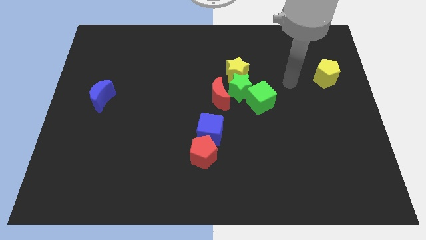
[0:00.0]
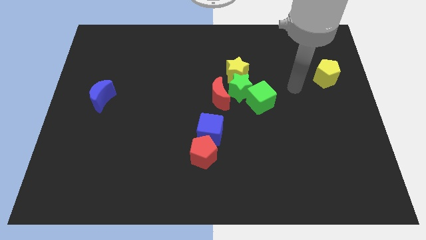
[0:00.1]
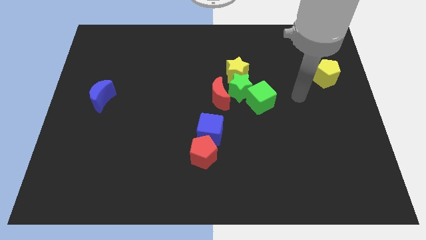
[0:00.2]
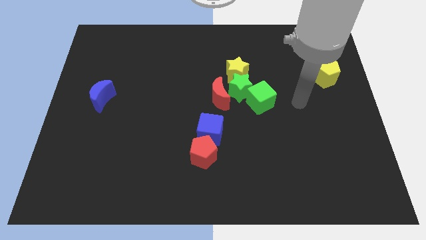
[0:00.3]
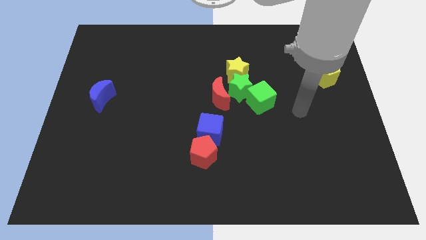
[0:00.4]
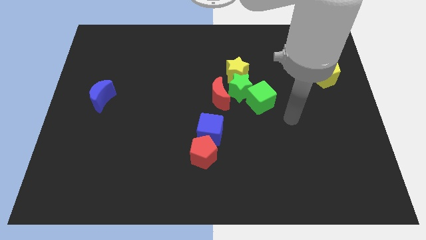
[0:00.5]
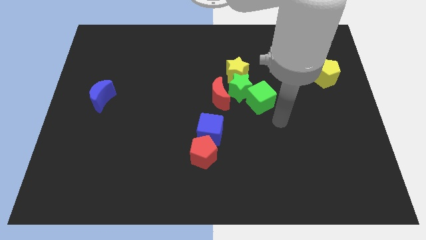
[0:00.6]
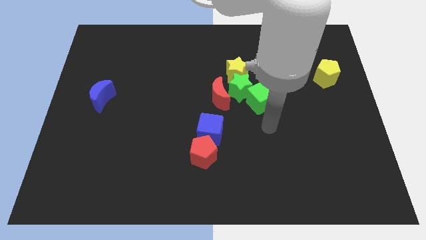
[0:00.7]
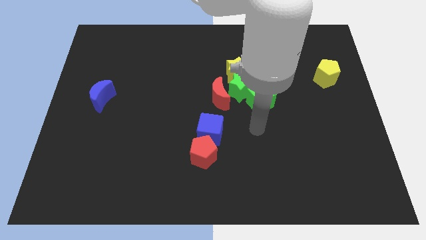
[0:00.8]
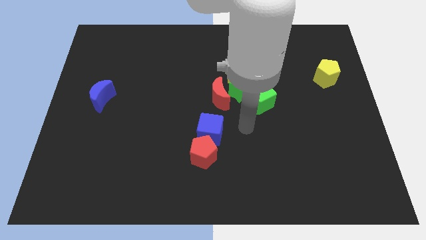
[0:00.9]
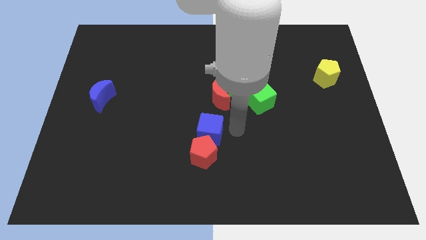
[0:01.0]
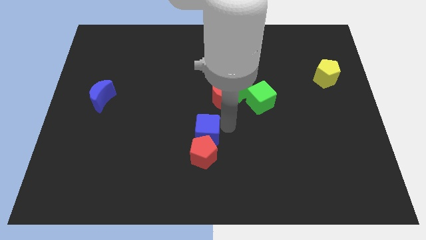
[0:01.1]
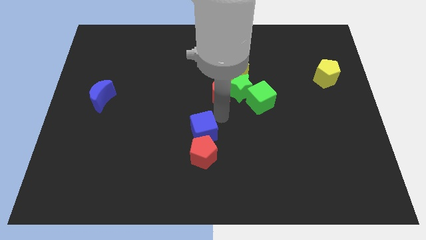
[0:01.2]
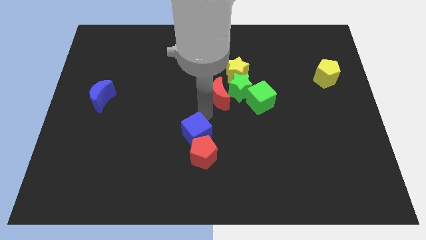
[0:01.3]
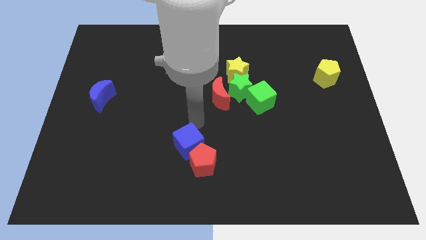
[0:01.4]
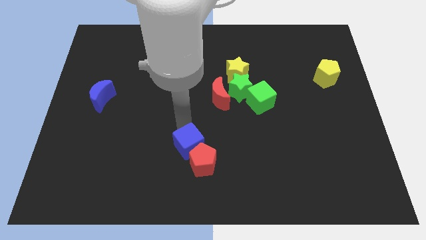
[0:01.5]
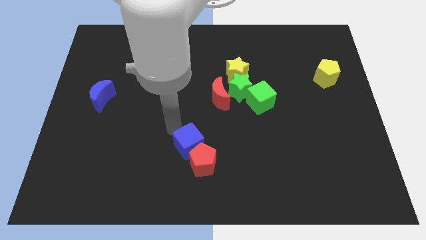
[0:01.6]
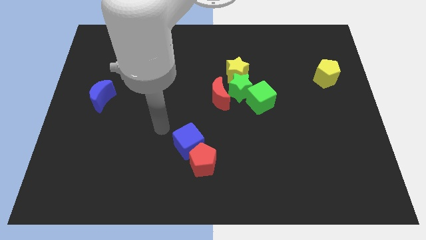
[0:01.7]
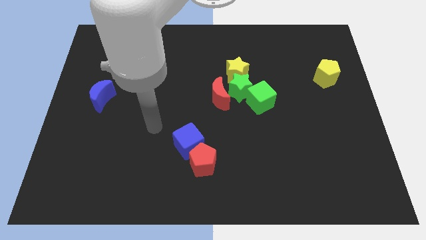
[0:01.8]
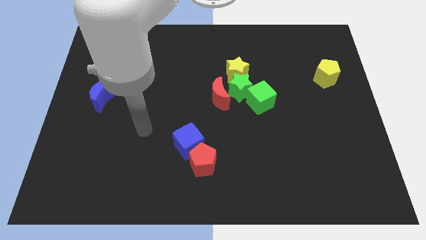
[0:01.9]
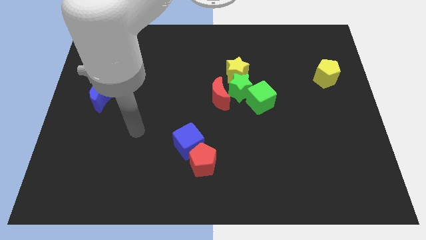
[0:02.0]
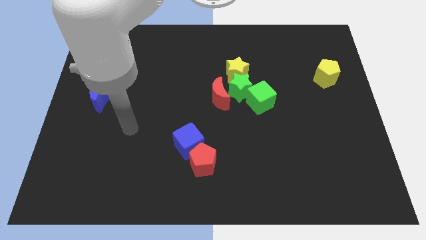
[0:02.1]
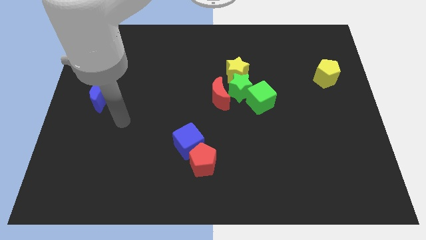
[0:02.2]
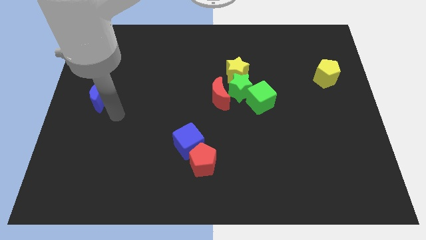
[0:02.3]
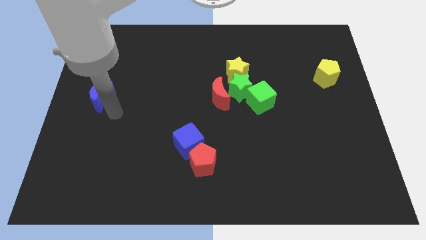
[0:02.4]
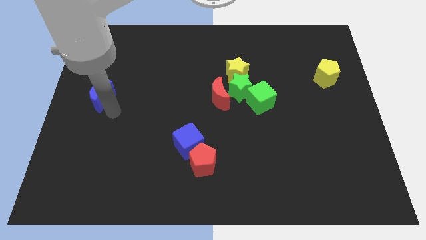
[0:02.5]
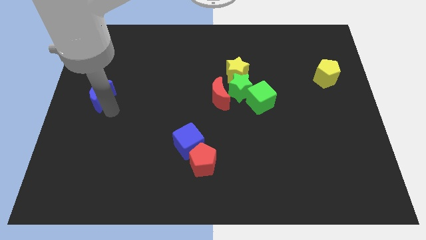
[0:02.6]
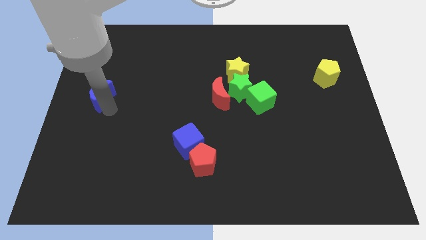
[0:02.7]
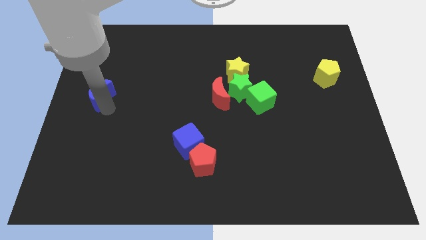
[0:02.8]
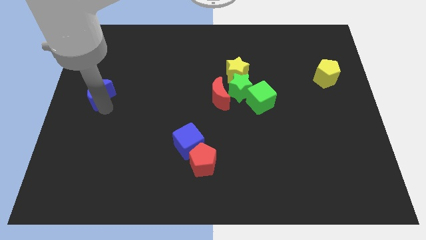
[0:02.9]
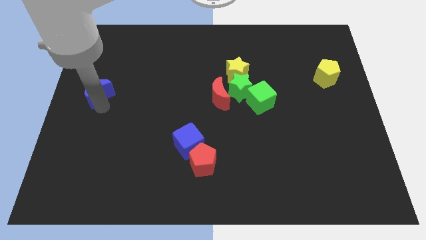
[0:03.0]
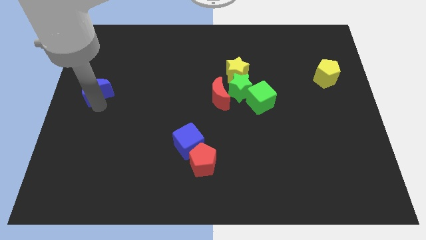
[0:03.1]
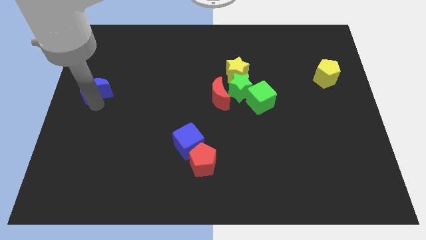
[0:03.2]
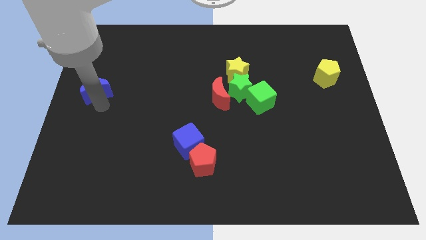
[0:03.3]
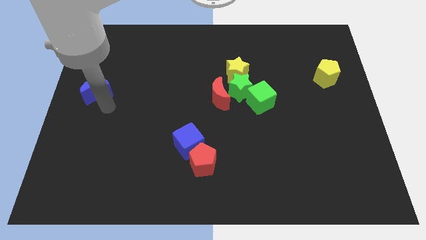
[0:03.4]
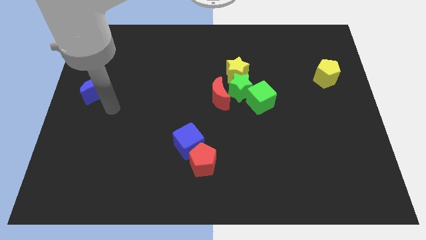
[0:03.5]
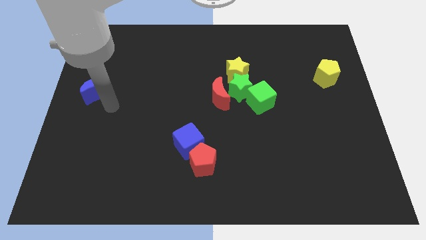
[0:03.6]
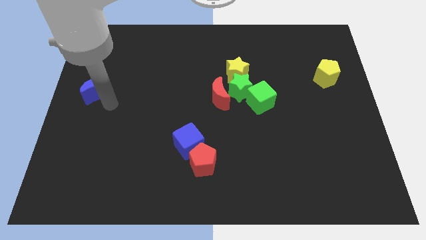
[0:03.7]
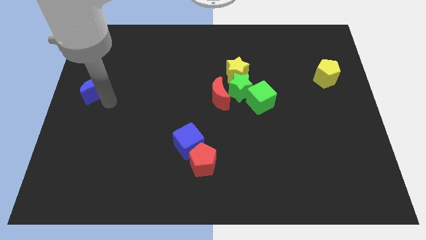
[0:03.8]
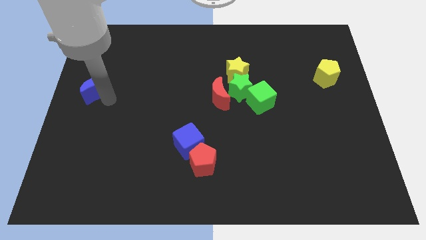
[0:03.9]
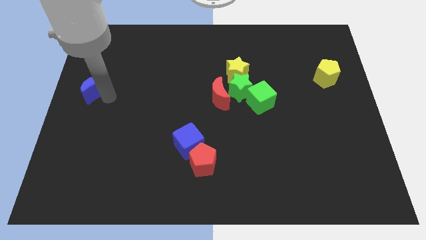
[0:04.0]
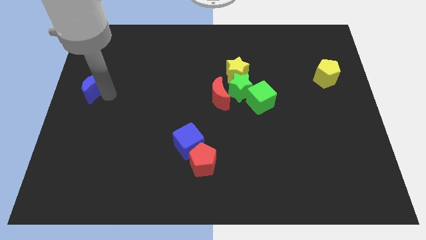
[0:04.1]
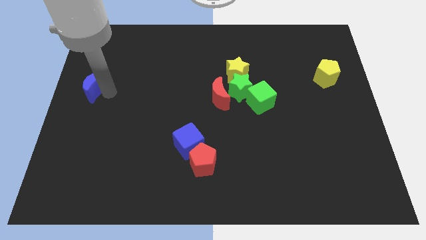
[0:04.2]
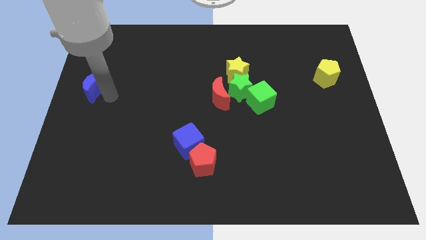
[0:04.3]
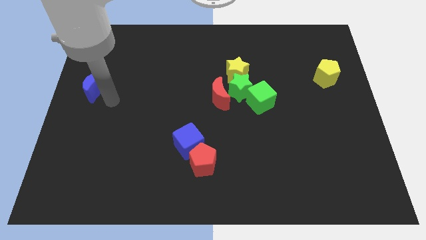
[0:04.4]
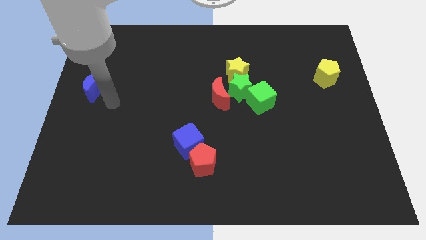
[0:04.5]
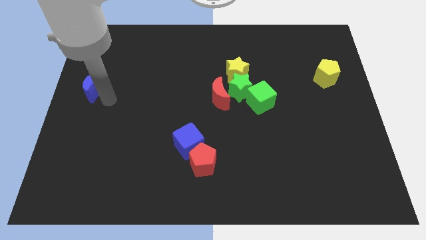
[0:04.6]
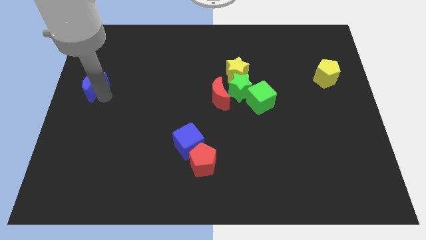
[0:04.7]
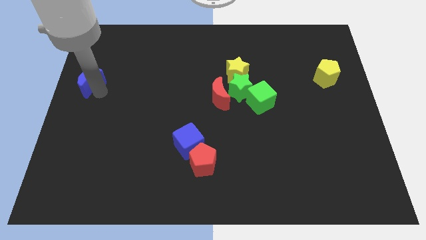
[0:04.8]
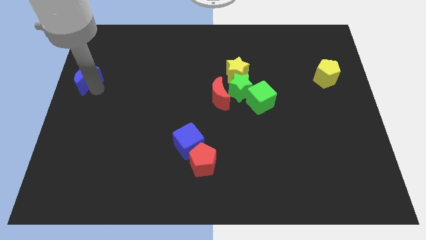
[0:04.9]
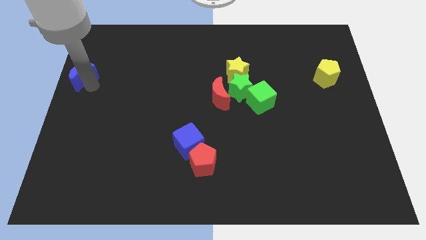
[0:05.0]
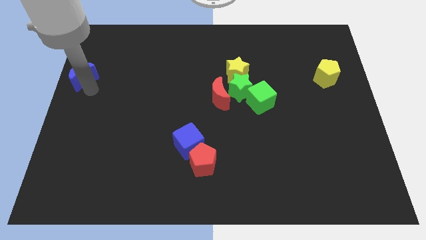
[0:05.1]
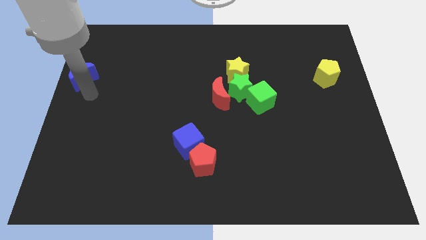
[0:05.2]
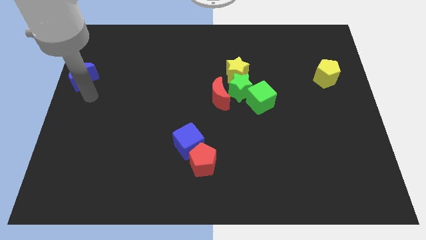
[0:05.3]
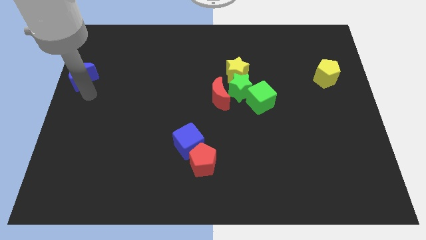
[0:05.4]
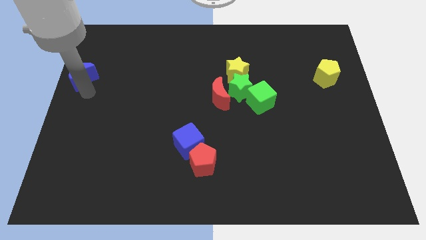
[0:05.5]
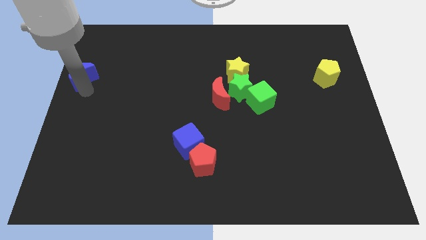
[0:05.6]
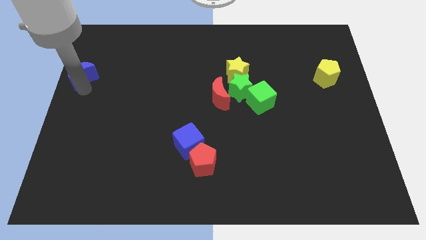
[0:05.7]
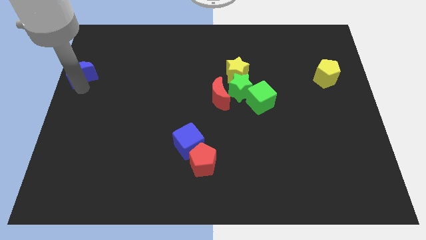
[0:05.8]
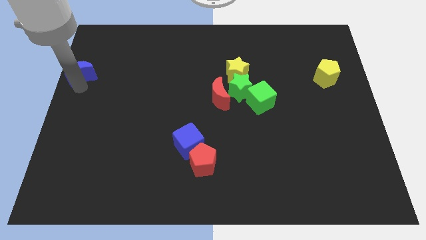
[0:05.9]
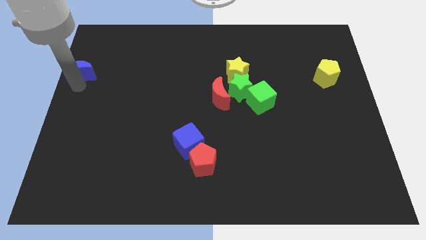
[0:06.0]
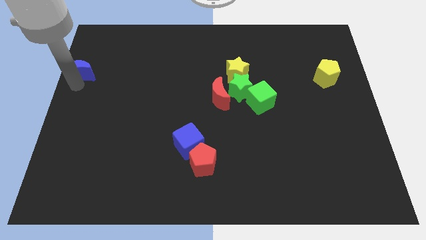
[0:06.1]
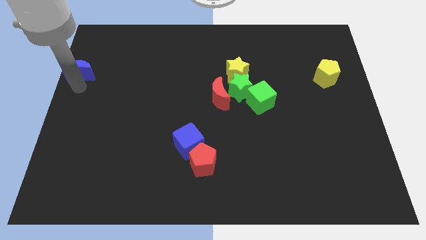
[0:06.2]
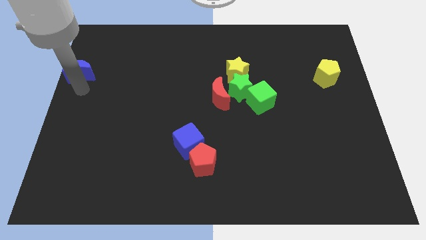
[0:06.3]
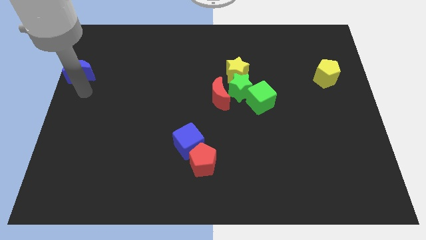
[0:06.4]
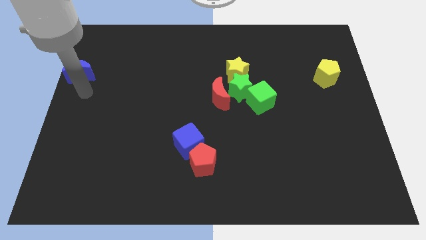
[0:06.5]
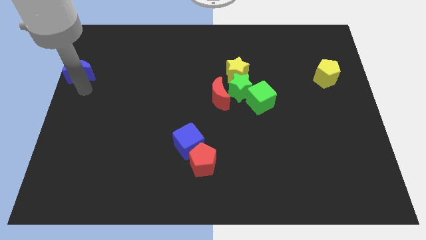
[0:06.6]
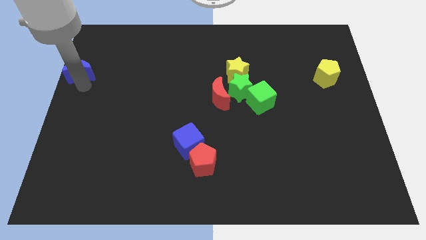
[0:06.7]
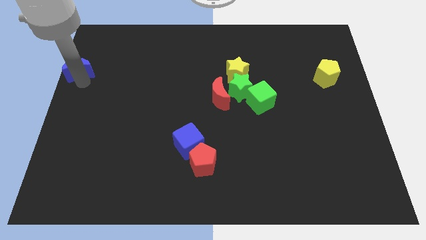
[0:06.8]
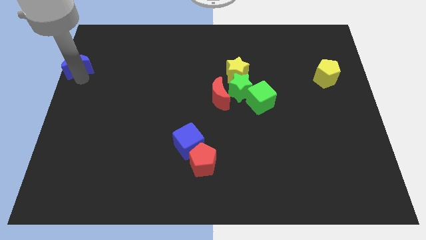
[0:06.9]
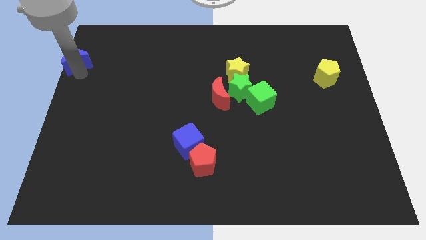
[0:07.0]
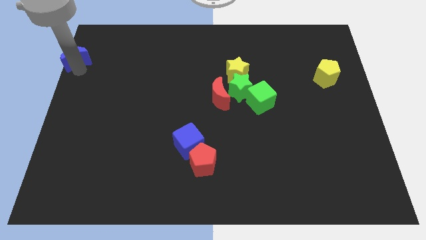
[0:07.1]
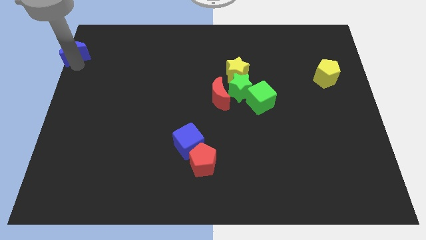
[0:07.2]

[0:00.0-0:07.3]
push the blue moon to the upper left corner
